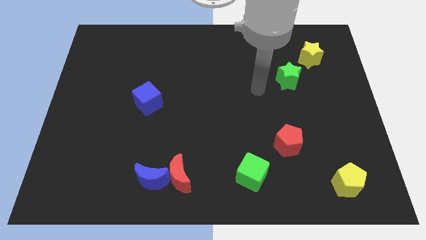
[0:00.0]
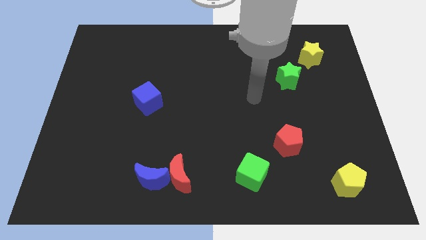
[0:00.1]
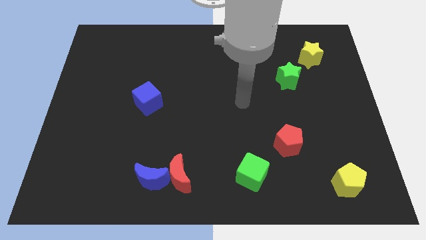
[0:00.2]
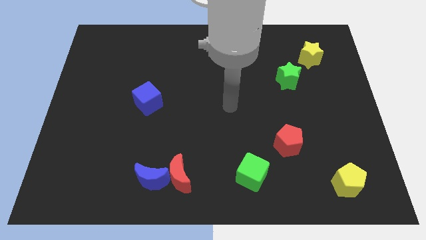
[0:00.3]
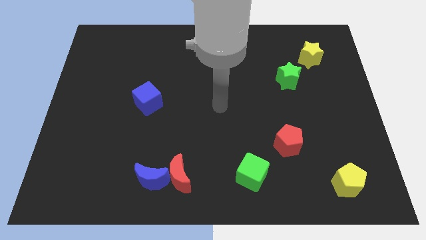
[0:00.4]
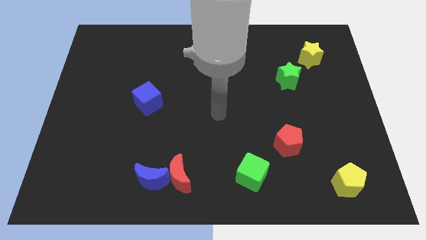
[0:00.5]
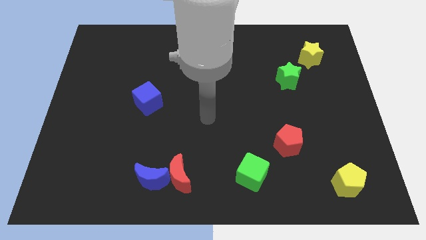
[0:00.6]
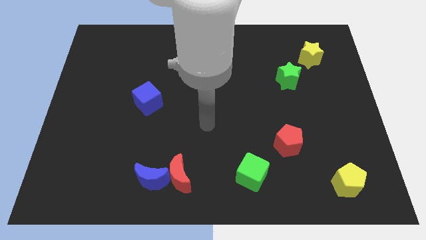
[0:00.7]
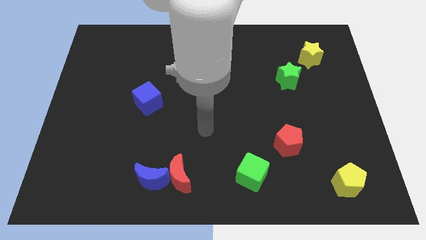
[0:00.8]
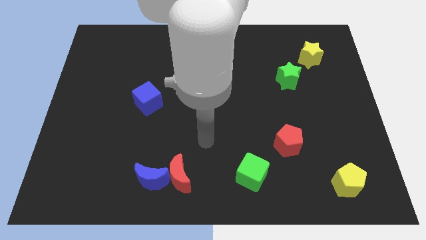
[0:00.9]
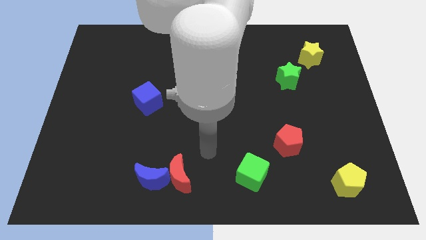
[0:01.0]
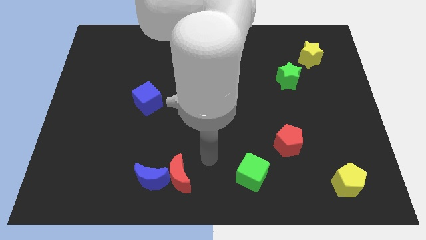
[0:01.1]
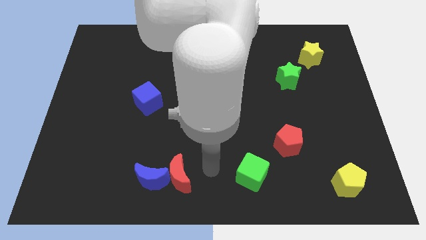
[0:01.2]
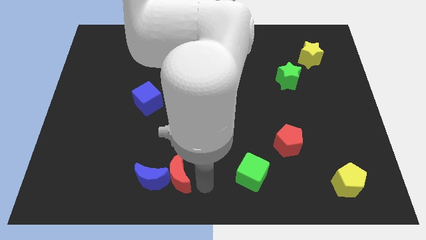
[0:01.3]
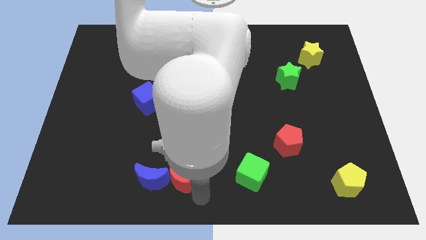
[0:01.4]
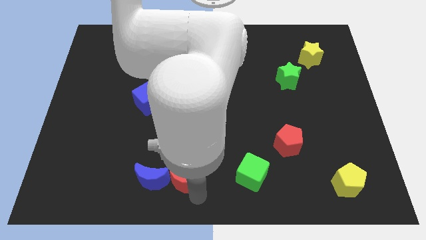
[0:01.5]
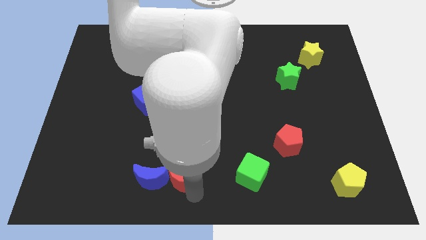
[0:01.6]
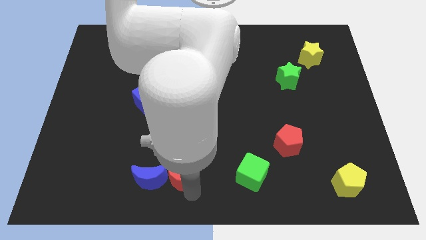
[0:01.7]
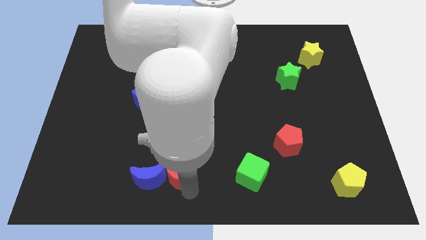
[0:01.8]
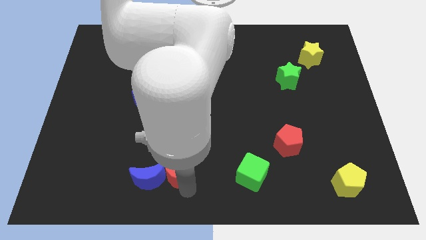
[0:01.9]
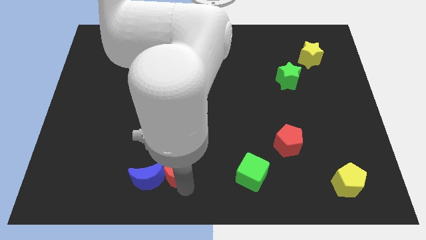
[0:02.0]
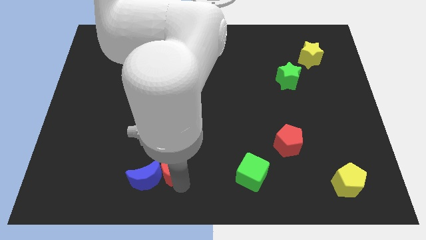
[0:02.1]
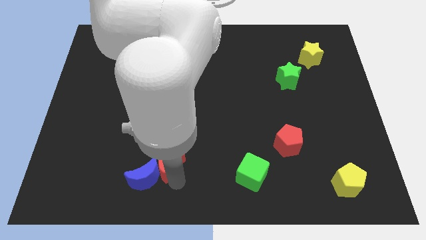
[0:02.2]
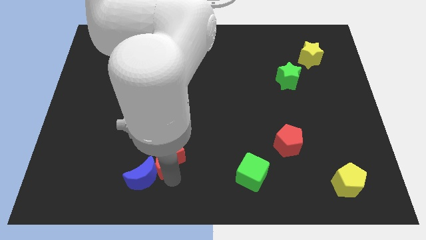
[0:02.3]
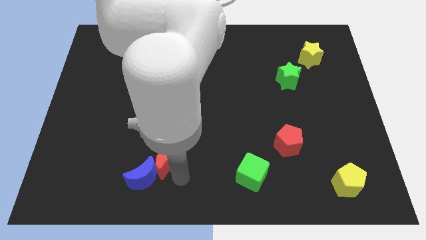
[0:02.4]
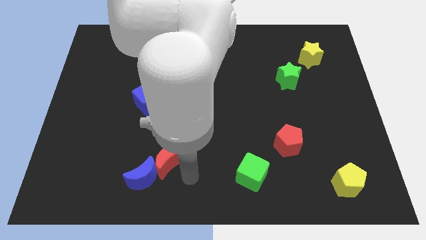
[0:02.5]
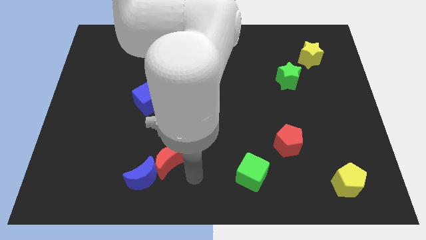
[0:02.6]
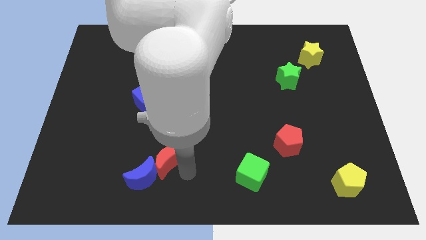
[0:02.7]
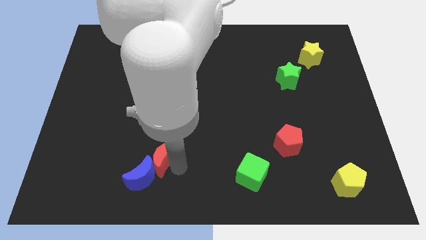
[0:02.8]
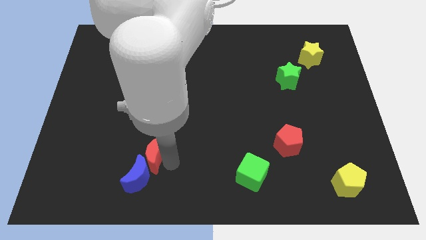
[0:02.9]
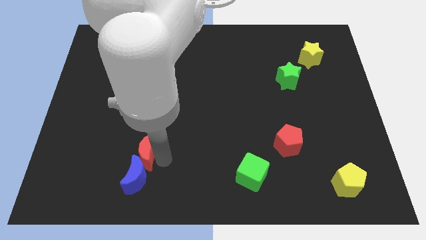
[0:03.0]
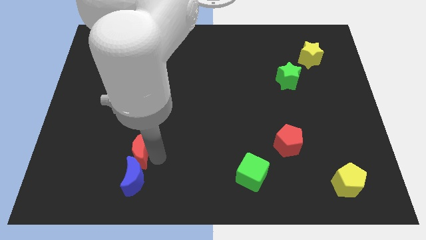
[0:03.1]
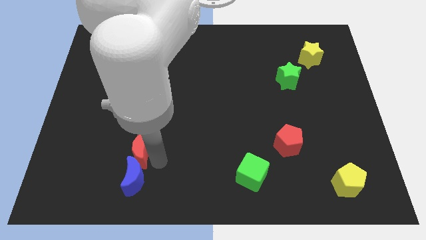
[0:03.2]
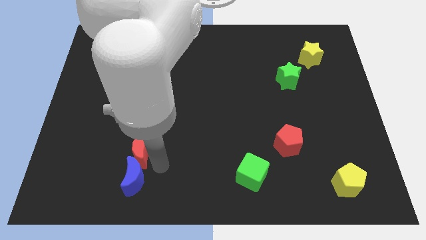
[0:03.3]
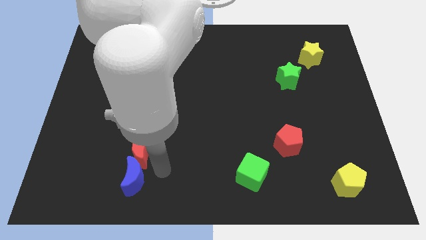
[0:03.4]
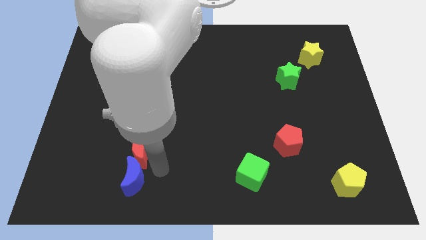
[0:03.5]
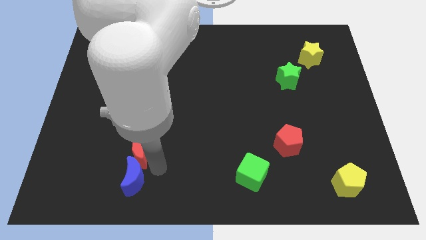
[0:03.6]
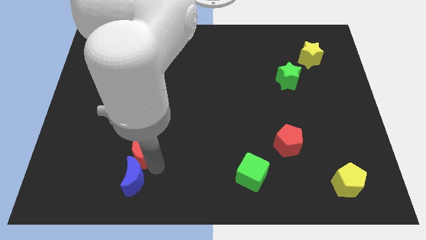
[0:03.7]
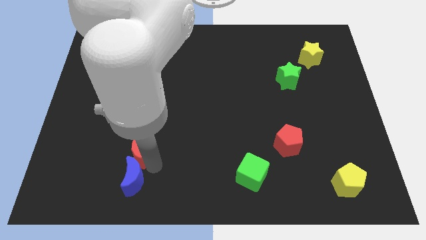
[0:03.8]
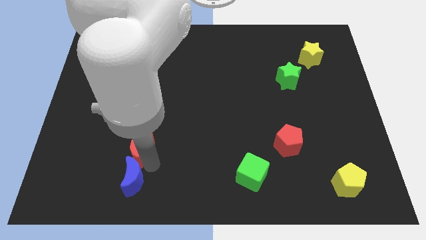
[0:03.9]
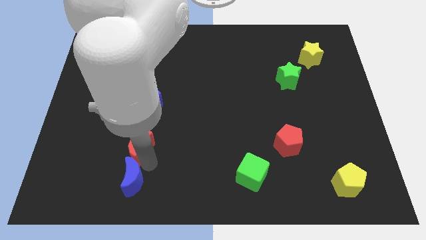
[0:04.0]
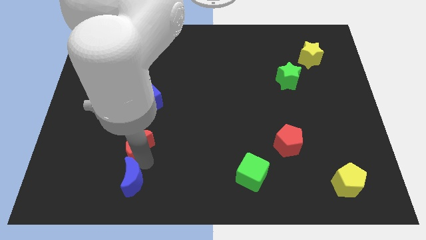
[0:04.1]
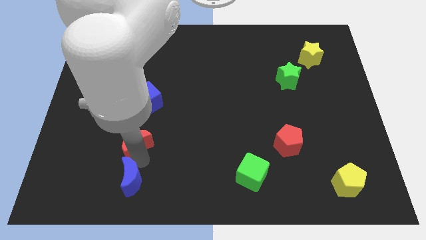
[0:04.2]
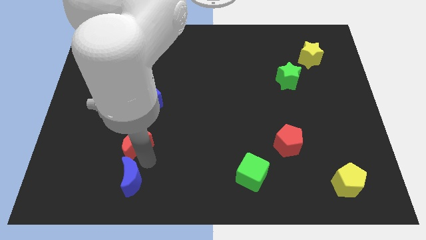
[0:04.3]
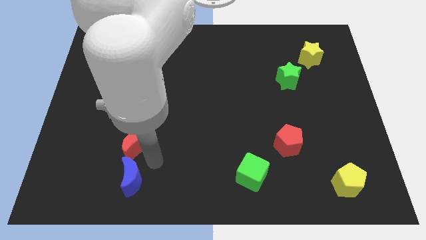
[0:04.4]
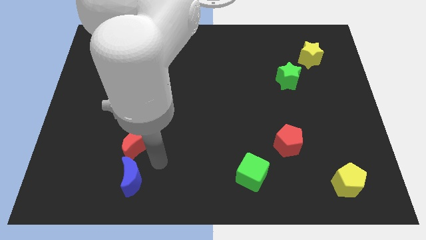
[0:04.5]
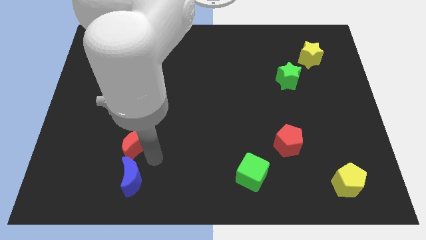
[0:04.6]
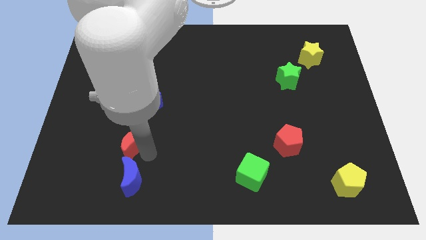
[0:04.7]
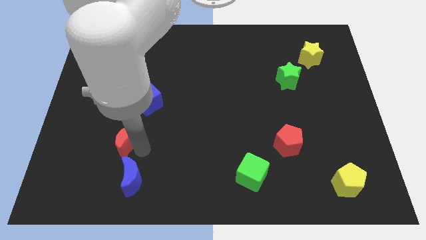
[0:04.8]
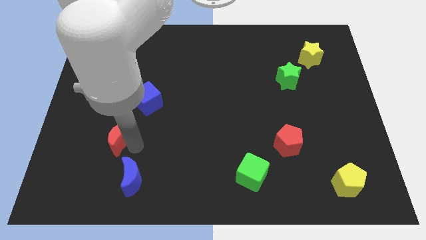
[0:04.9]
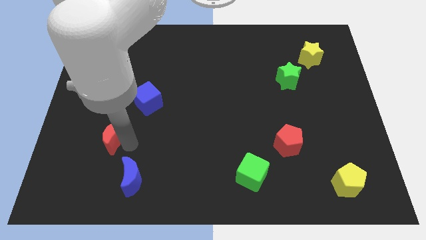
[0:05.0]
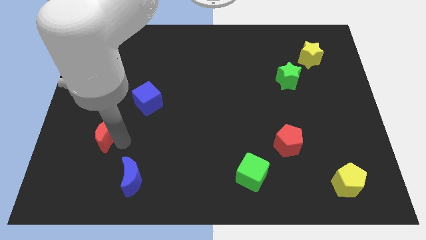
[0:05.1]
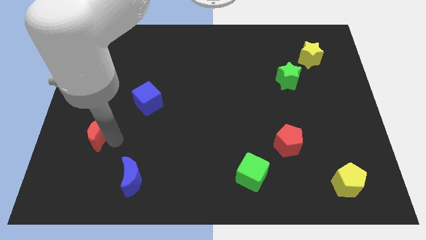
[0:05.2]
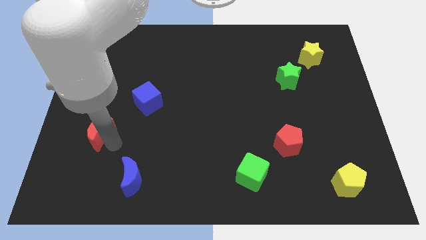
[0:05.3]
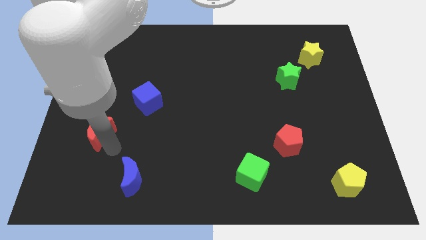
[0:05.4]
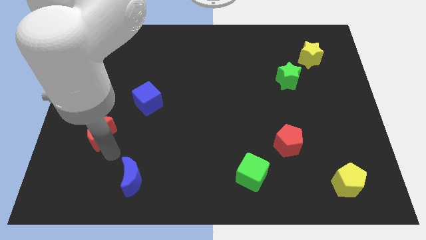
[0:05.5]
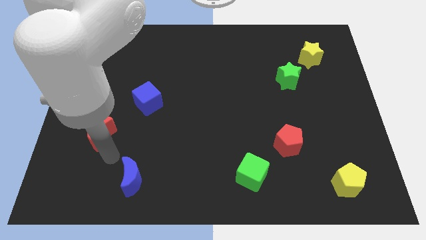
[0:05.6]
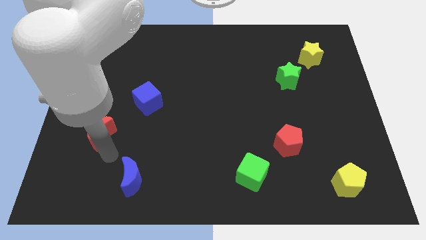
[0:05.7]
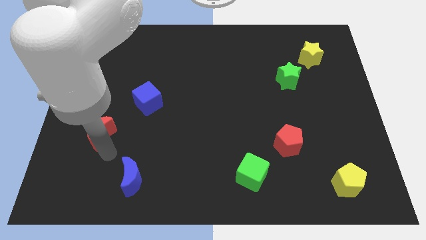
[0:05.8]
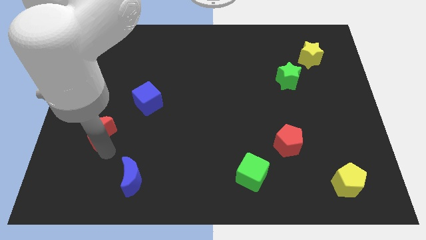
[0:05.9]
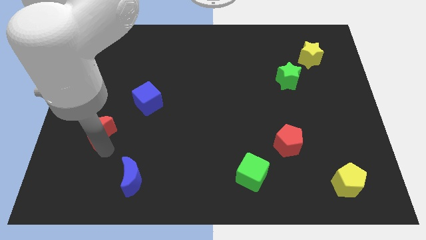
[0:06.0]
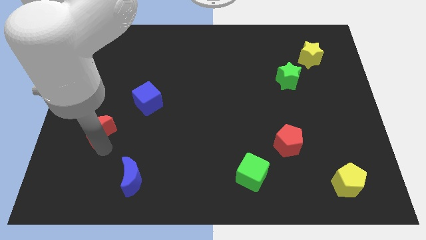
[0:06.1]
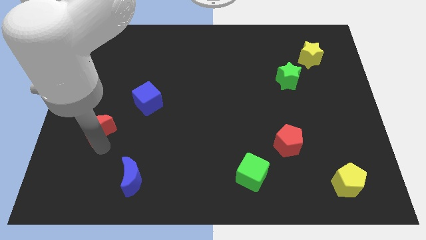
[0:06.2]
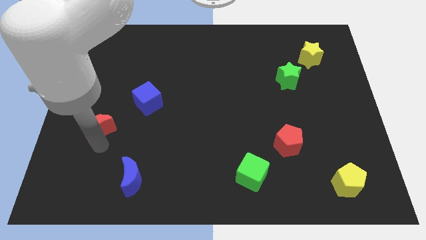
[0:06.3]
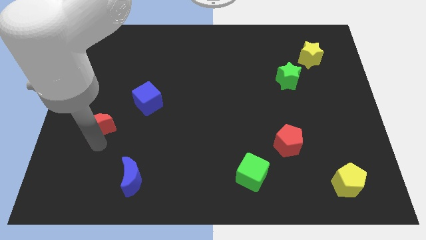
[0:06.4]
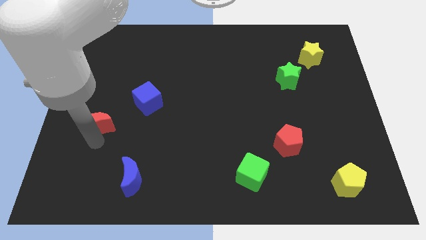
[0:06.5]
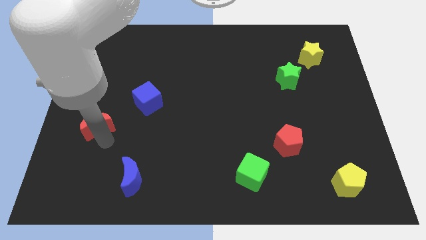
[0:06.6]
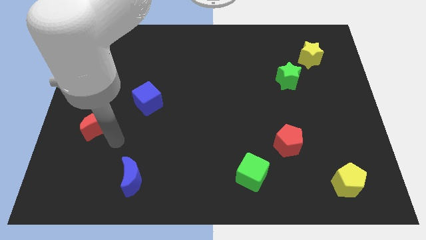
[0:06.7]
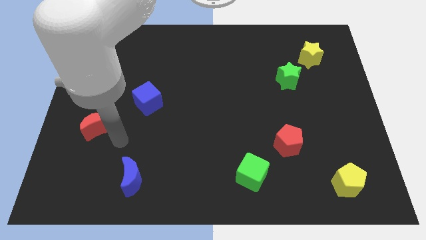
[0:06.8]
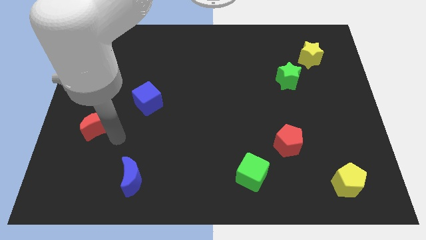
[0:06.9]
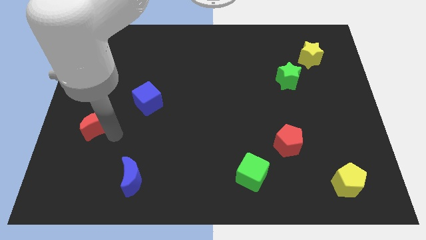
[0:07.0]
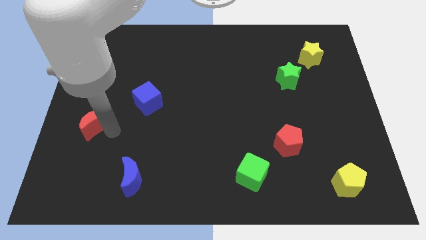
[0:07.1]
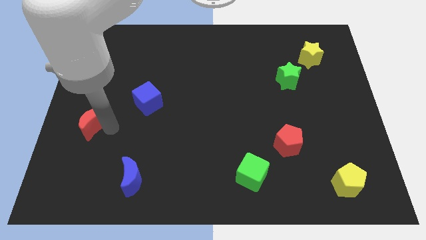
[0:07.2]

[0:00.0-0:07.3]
push the red moon to the left side of the board

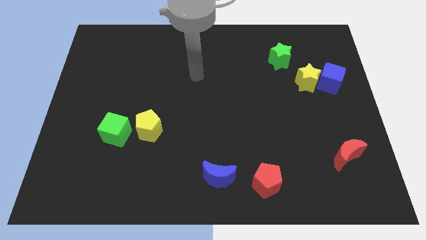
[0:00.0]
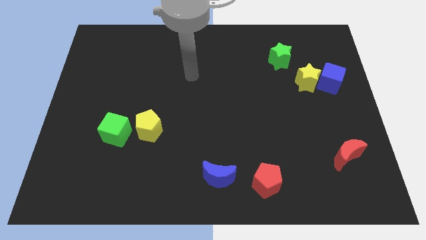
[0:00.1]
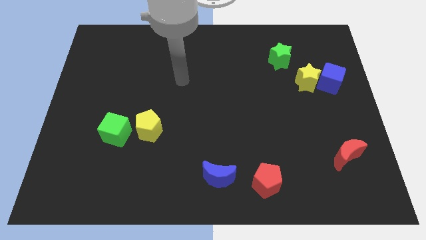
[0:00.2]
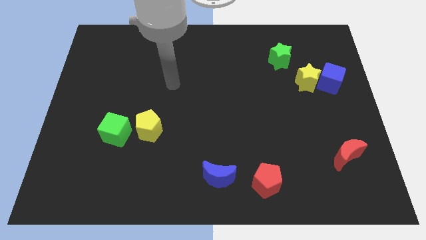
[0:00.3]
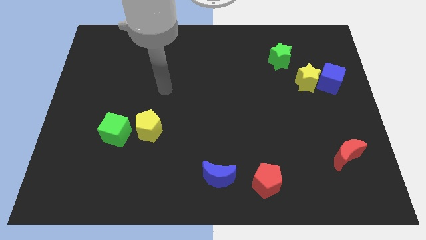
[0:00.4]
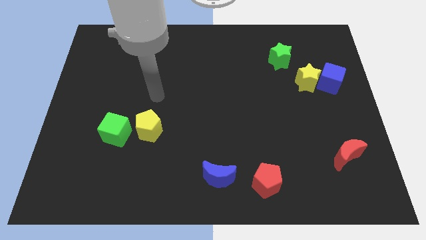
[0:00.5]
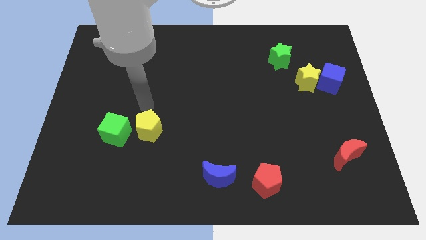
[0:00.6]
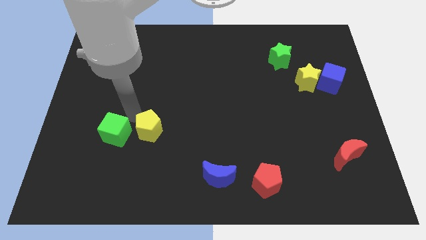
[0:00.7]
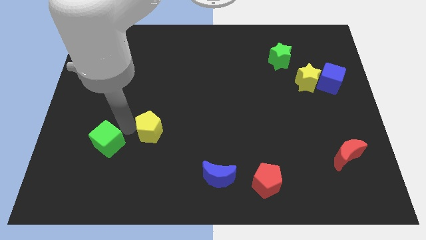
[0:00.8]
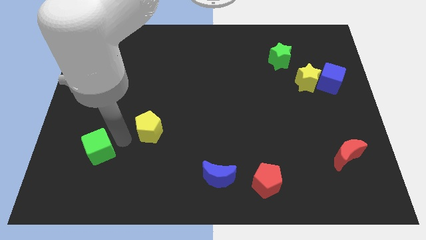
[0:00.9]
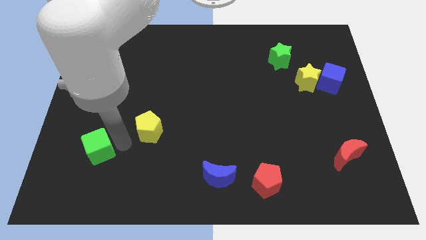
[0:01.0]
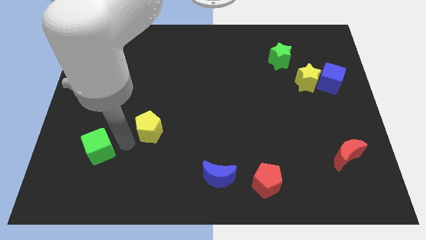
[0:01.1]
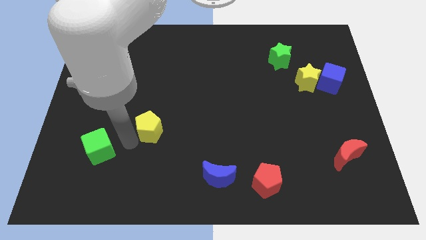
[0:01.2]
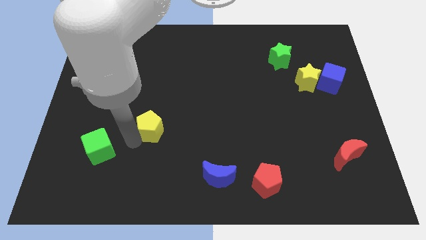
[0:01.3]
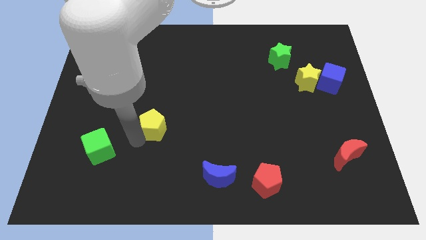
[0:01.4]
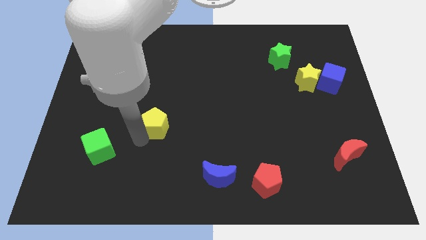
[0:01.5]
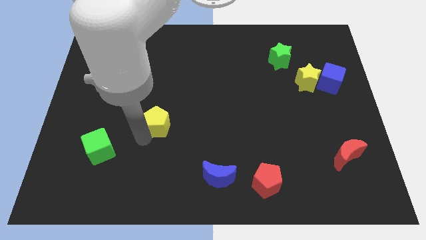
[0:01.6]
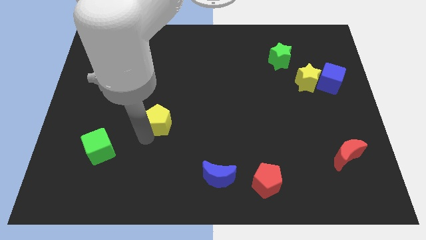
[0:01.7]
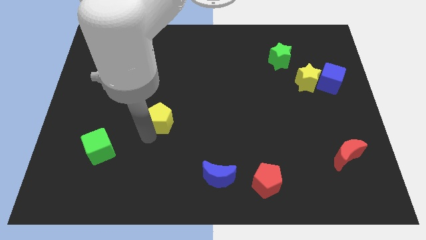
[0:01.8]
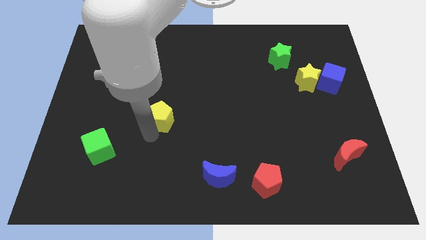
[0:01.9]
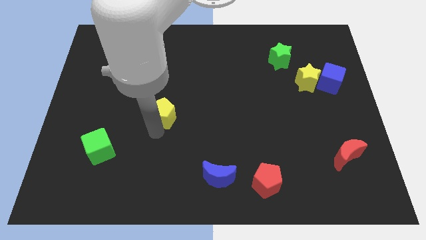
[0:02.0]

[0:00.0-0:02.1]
move the yellow pentagon to the middle of the board
